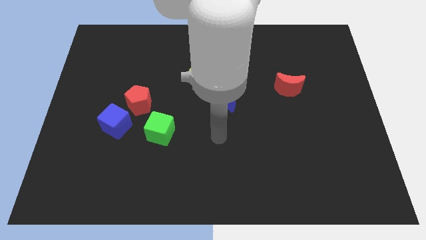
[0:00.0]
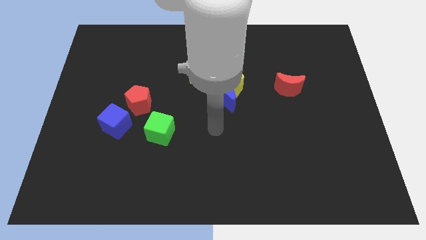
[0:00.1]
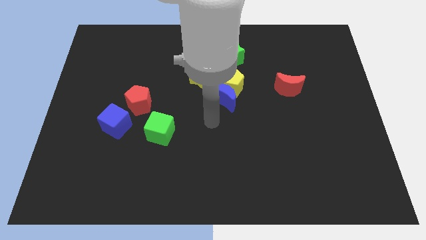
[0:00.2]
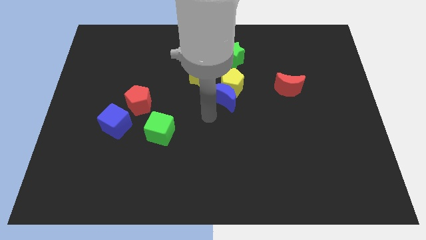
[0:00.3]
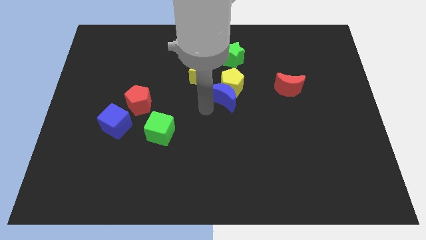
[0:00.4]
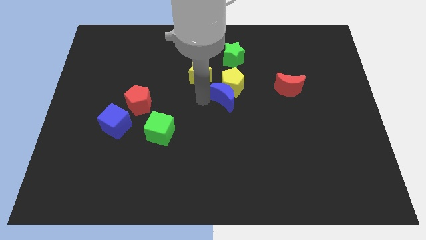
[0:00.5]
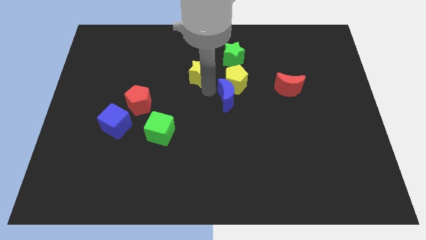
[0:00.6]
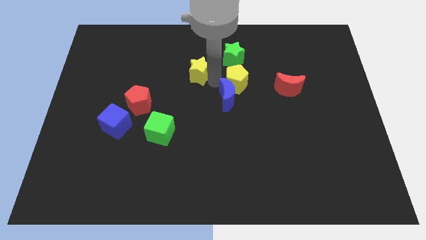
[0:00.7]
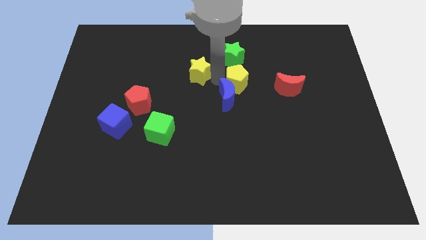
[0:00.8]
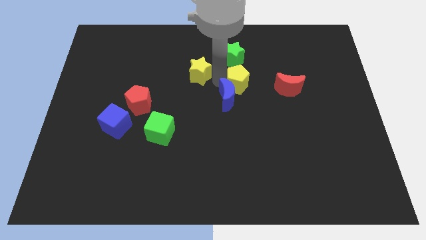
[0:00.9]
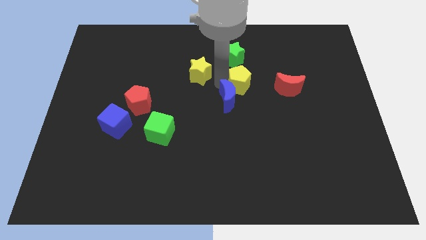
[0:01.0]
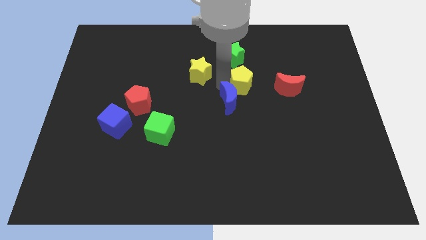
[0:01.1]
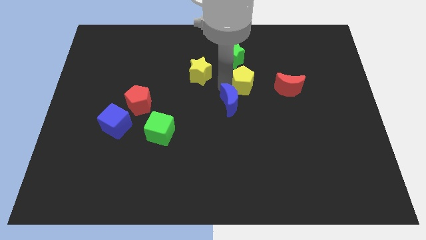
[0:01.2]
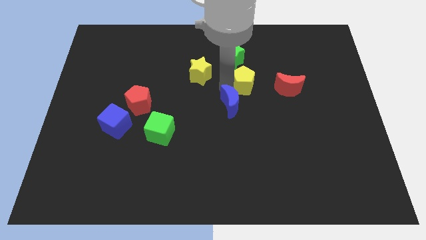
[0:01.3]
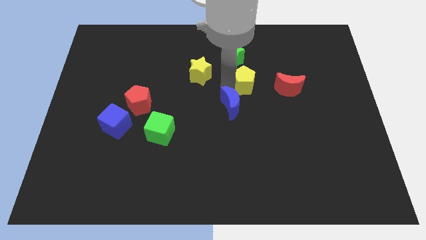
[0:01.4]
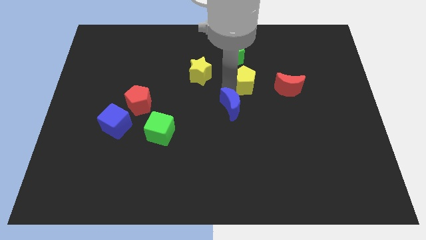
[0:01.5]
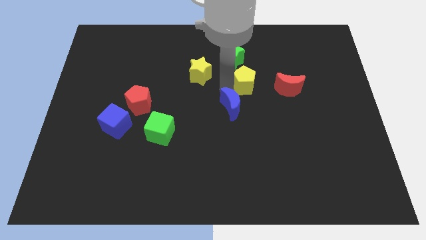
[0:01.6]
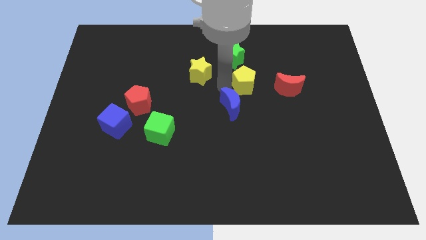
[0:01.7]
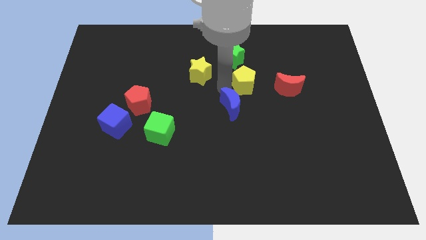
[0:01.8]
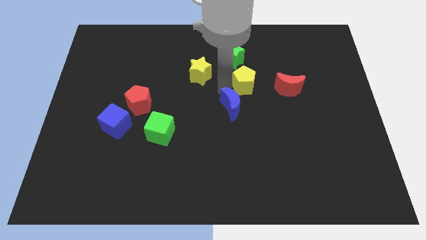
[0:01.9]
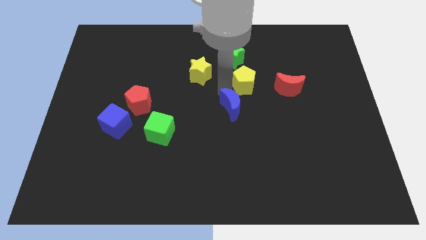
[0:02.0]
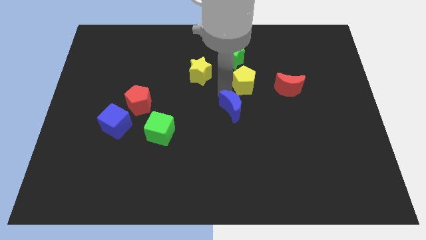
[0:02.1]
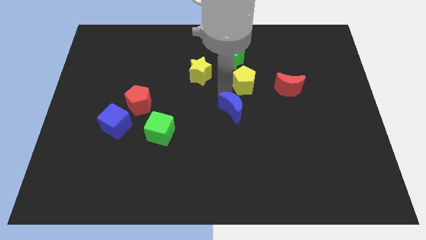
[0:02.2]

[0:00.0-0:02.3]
separate the blue moon from the yellow pentagon and yellow star

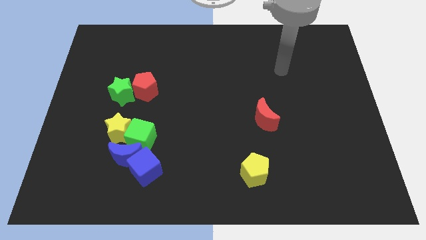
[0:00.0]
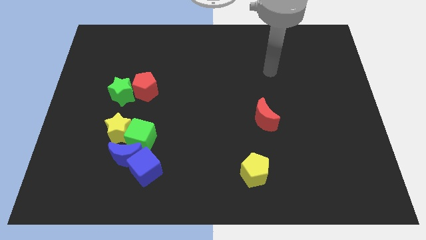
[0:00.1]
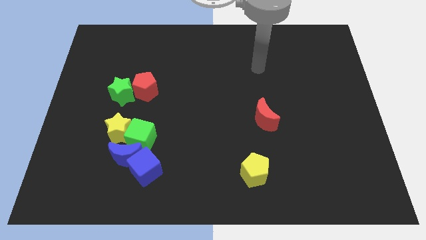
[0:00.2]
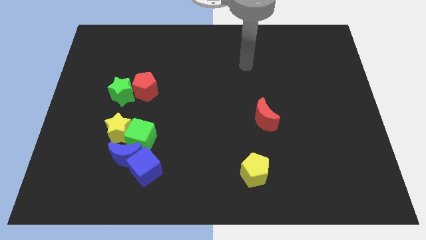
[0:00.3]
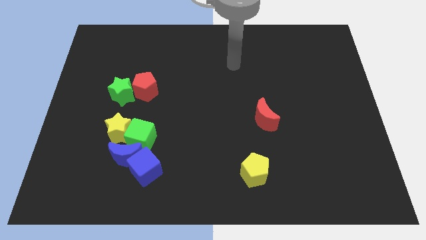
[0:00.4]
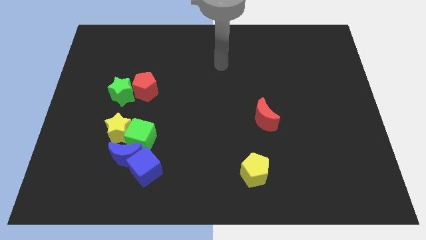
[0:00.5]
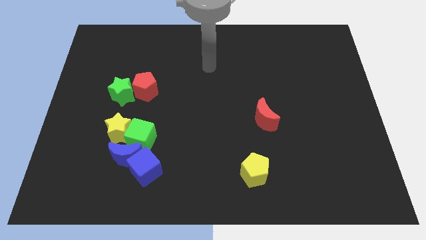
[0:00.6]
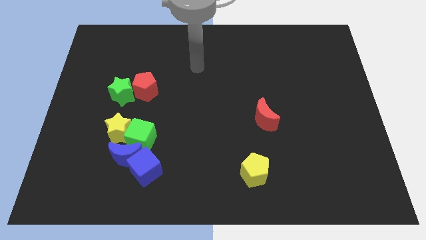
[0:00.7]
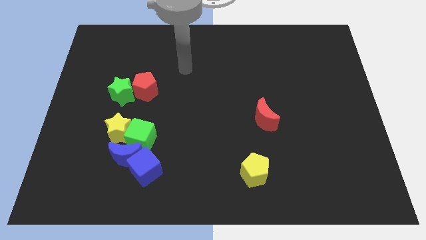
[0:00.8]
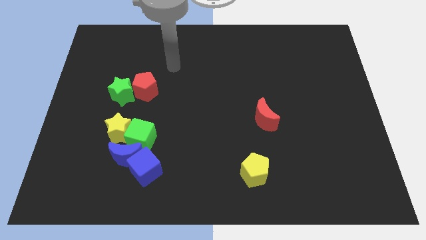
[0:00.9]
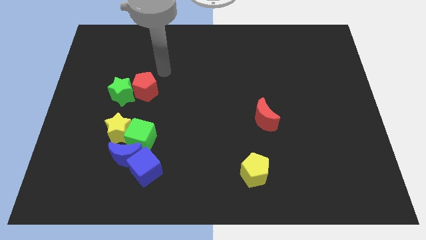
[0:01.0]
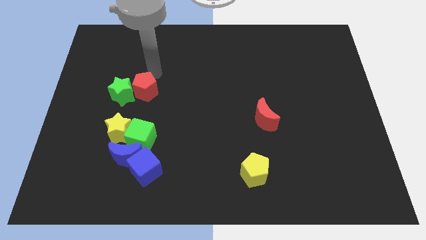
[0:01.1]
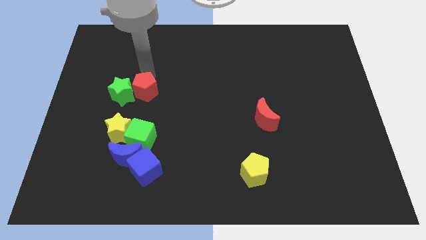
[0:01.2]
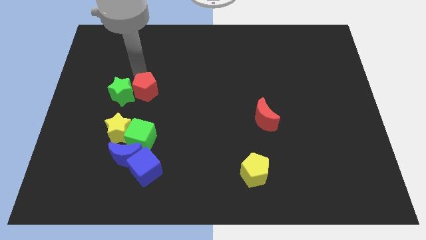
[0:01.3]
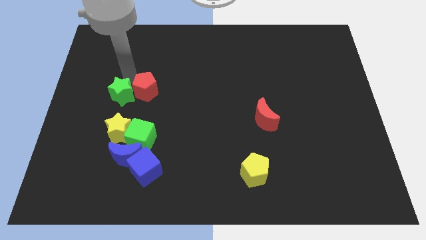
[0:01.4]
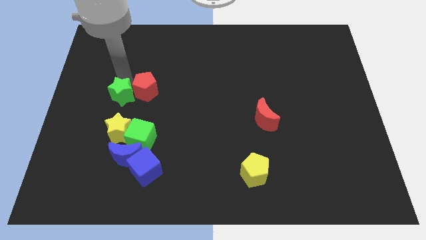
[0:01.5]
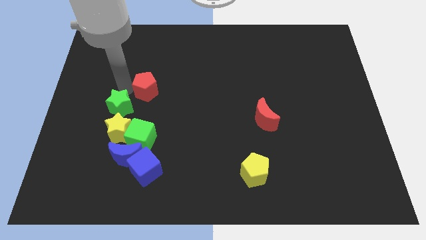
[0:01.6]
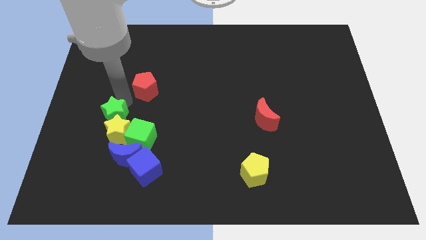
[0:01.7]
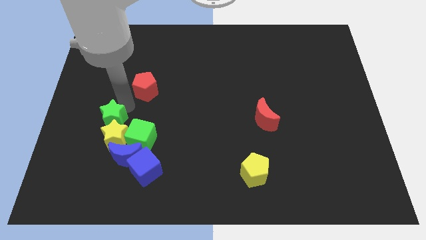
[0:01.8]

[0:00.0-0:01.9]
separate the red pentagon from the green star

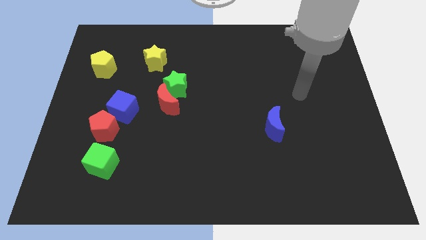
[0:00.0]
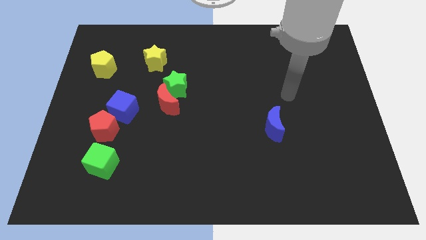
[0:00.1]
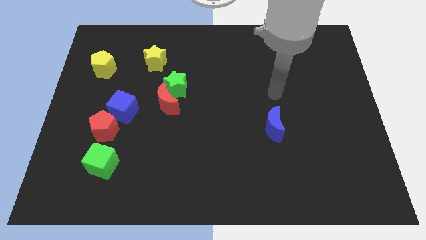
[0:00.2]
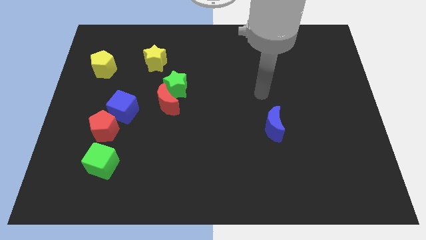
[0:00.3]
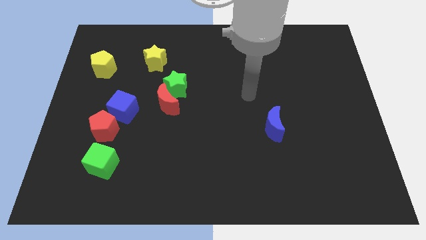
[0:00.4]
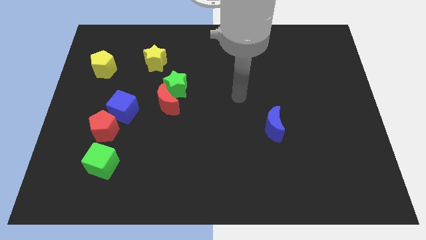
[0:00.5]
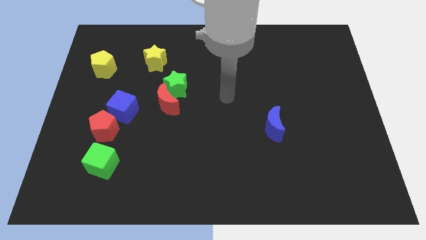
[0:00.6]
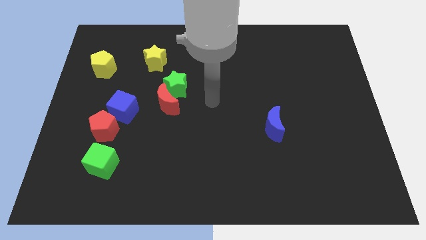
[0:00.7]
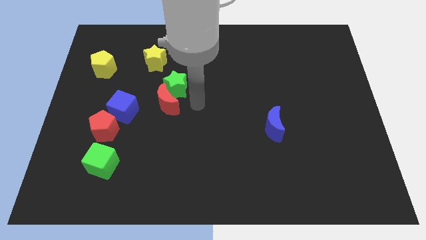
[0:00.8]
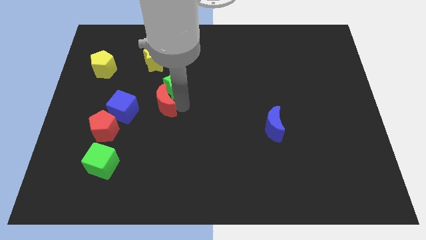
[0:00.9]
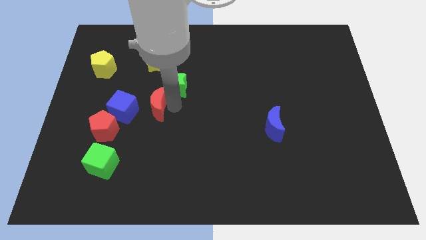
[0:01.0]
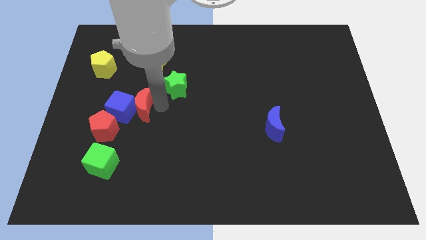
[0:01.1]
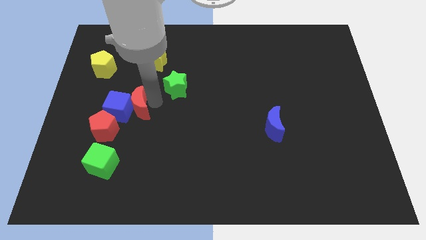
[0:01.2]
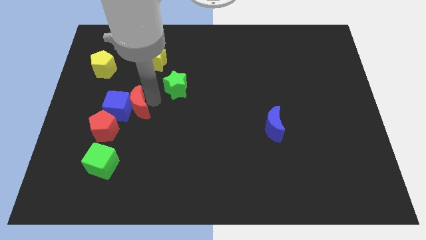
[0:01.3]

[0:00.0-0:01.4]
pull the green star apart from the red moon

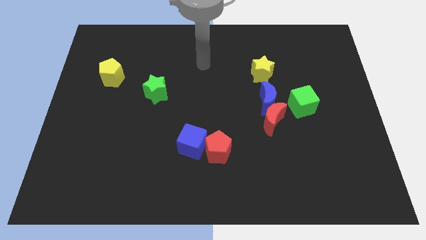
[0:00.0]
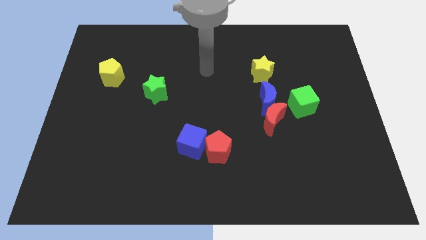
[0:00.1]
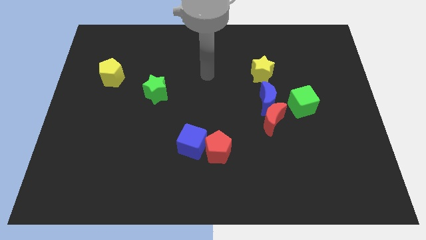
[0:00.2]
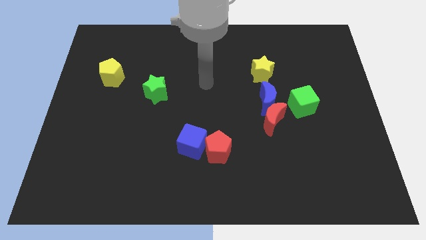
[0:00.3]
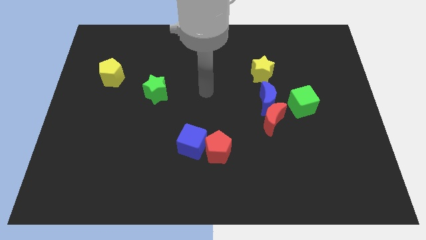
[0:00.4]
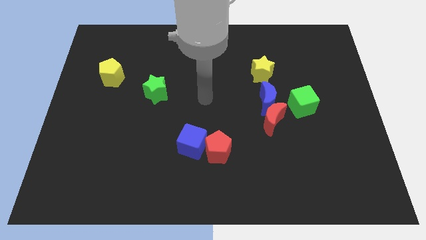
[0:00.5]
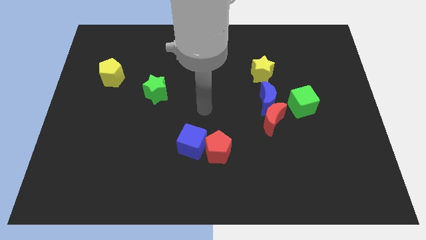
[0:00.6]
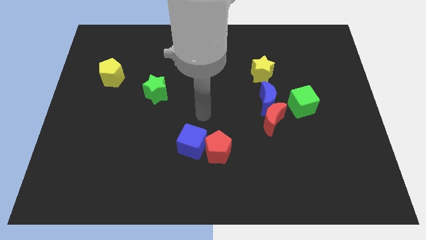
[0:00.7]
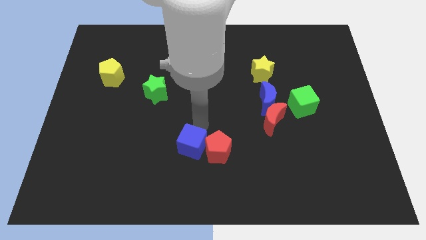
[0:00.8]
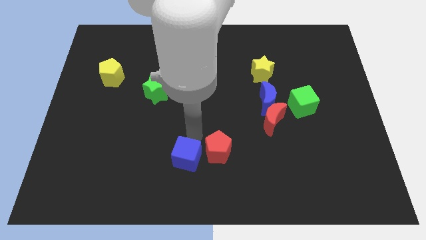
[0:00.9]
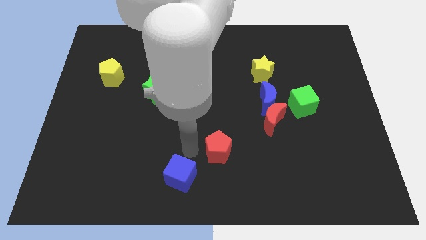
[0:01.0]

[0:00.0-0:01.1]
pull the red pentagon apart from the blue cube

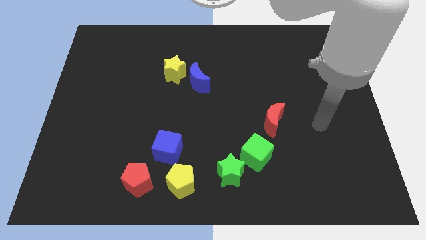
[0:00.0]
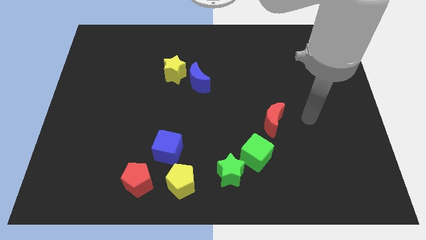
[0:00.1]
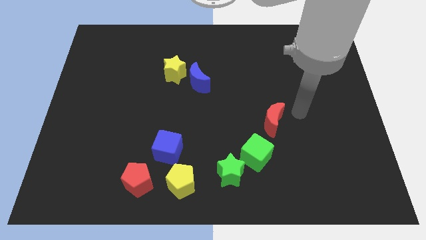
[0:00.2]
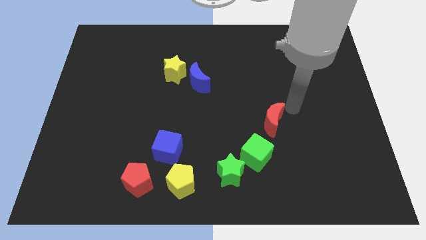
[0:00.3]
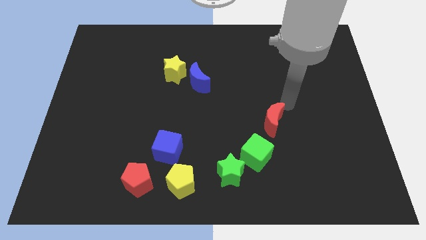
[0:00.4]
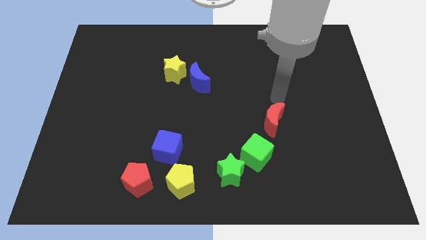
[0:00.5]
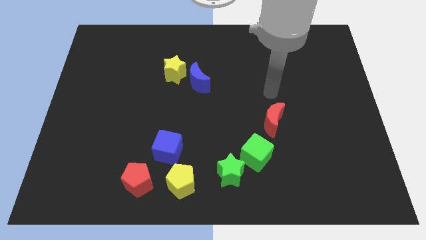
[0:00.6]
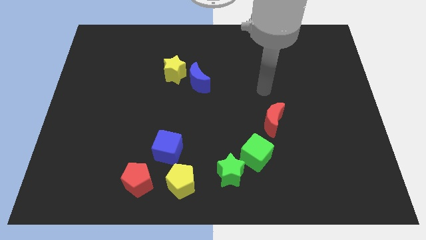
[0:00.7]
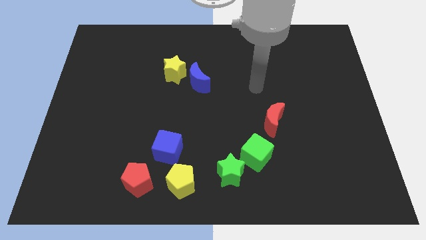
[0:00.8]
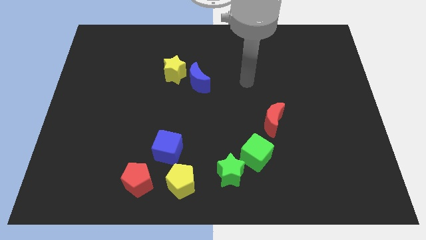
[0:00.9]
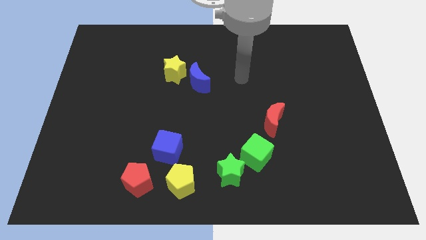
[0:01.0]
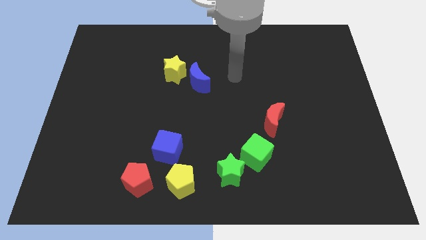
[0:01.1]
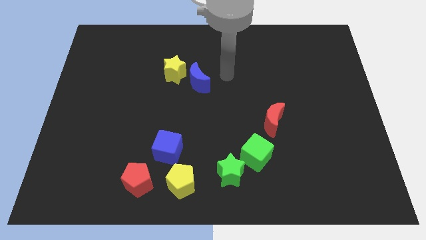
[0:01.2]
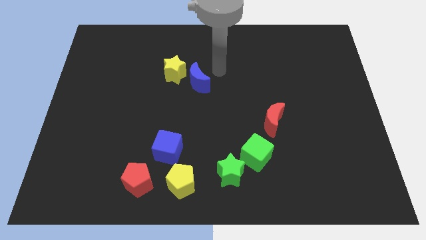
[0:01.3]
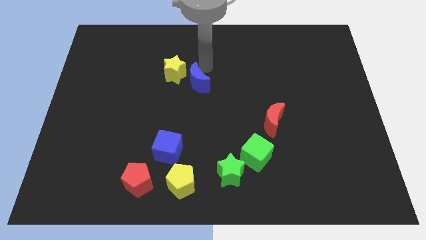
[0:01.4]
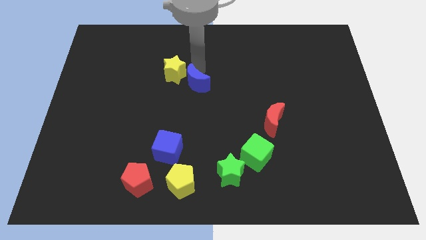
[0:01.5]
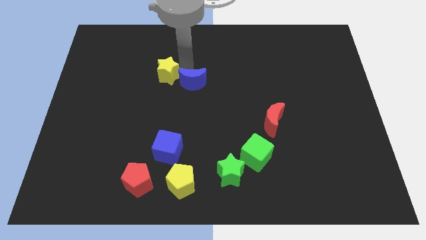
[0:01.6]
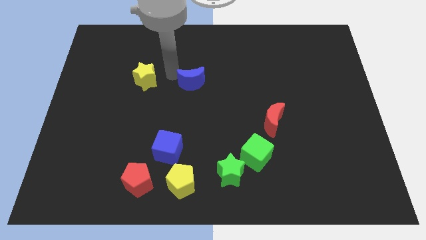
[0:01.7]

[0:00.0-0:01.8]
pull the blue moon apart from the yellow star

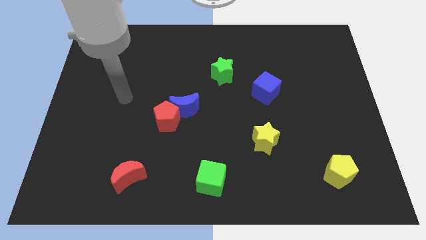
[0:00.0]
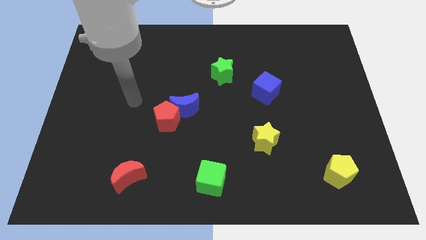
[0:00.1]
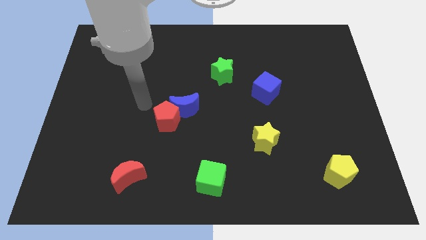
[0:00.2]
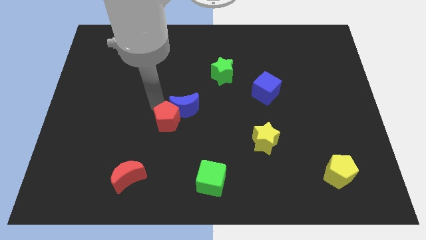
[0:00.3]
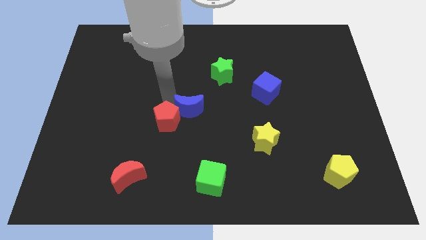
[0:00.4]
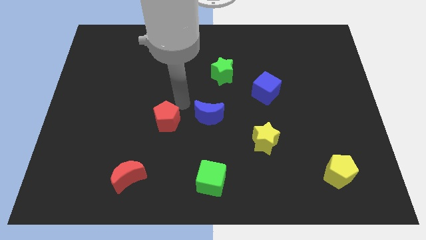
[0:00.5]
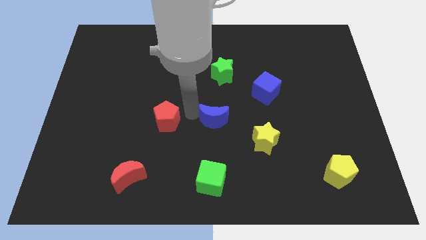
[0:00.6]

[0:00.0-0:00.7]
pull the red pentagon apart from the blue moon
